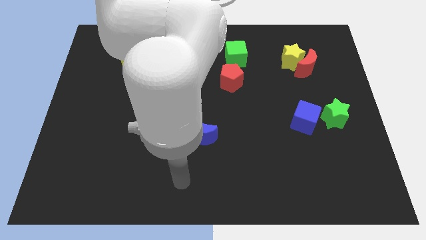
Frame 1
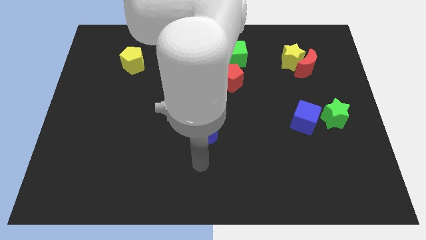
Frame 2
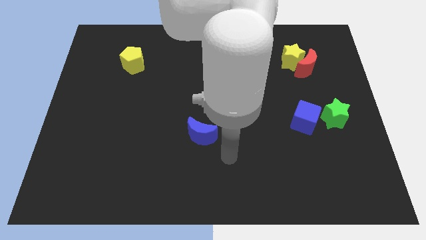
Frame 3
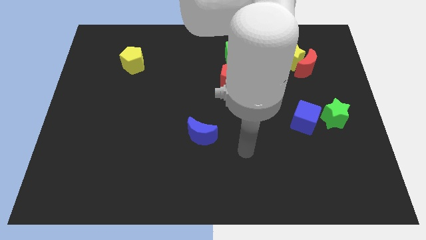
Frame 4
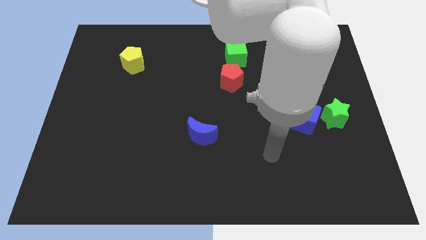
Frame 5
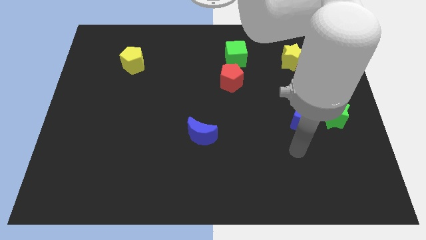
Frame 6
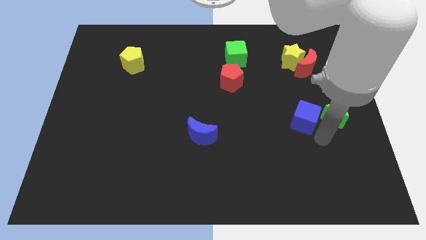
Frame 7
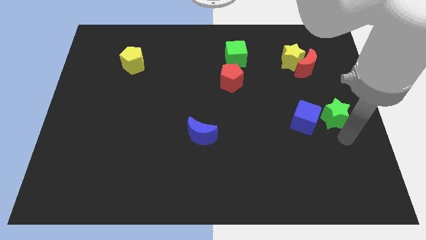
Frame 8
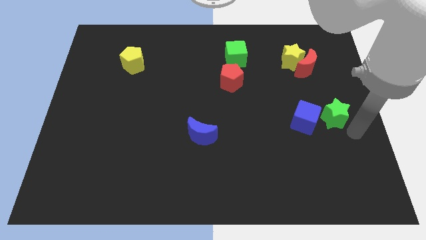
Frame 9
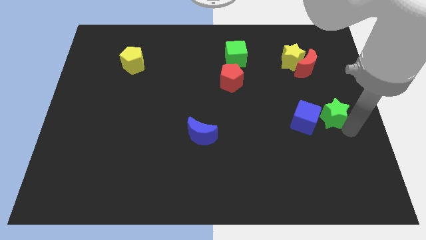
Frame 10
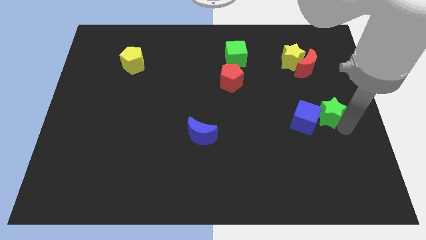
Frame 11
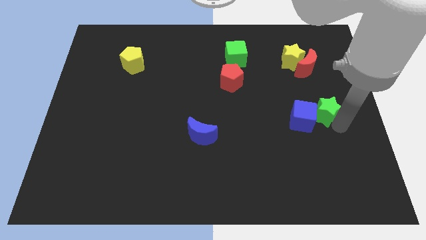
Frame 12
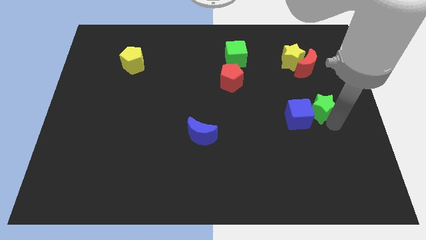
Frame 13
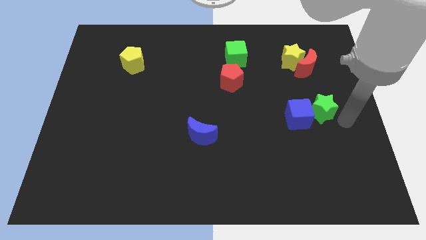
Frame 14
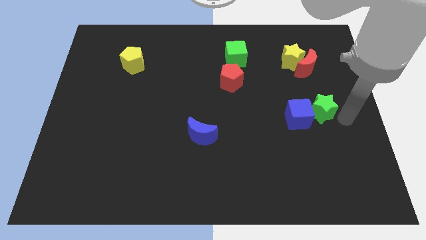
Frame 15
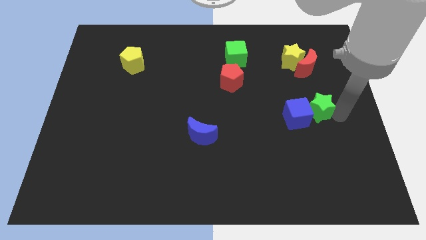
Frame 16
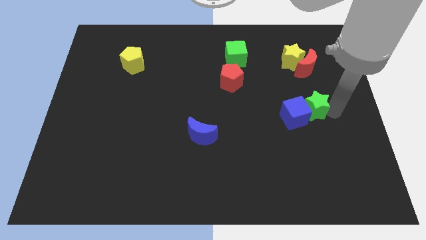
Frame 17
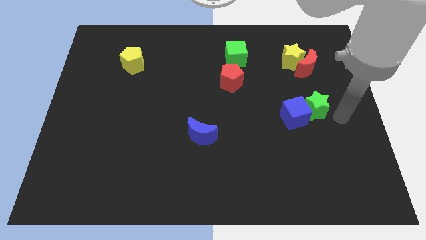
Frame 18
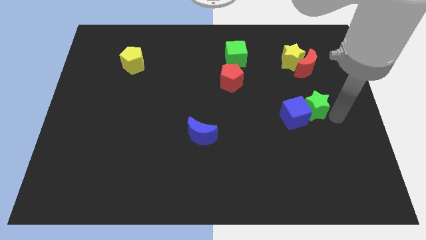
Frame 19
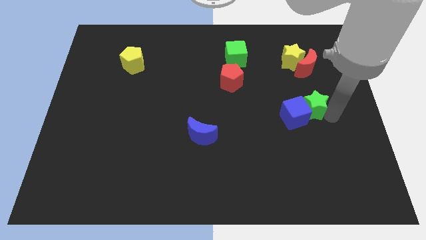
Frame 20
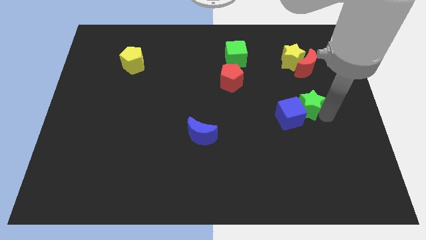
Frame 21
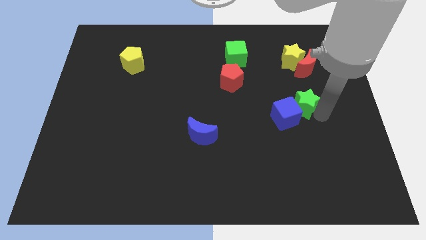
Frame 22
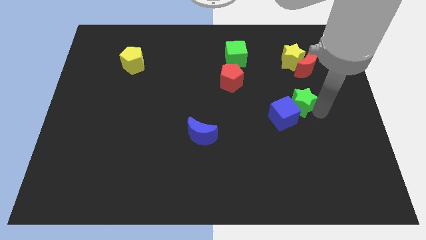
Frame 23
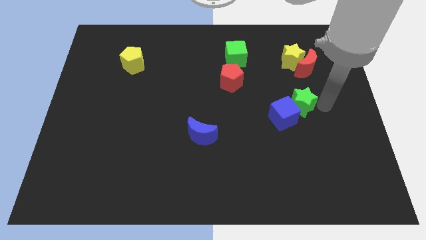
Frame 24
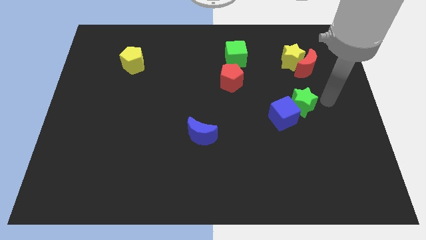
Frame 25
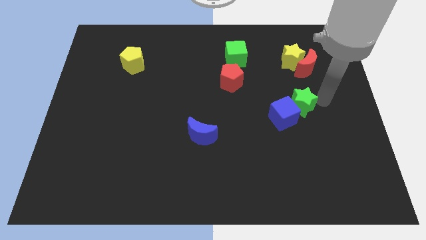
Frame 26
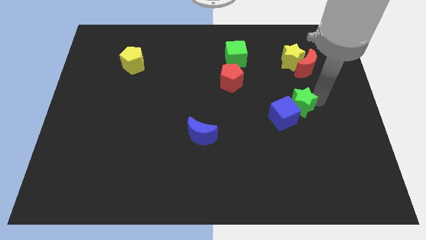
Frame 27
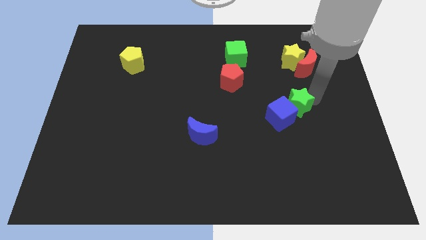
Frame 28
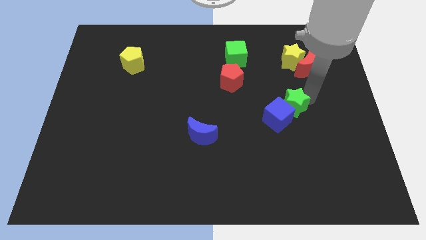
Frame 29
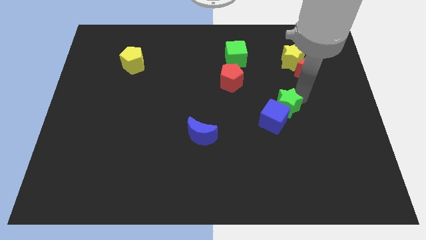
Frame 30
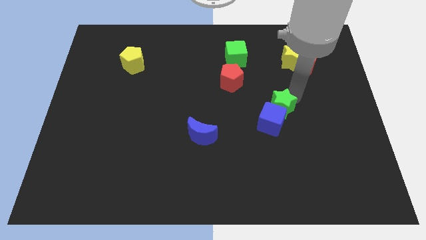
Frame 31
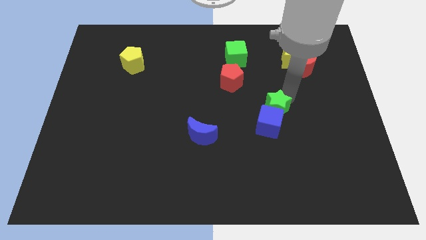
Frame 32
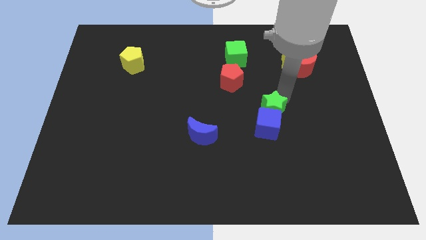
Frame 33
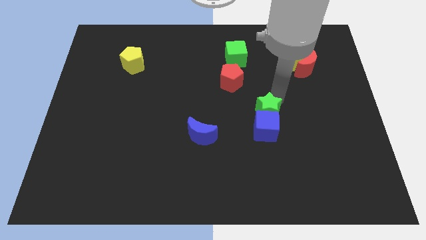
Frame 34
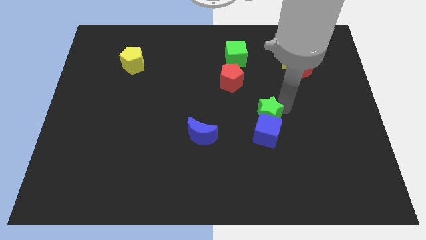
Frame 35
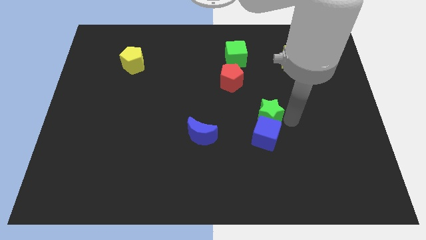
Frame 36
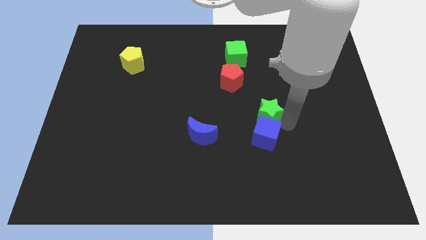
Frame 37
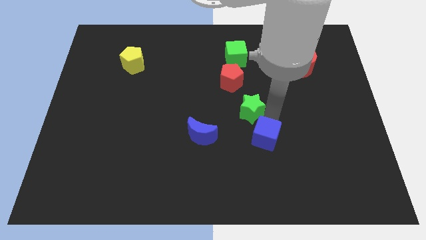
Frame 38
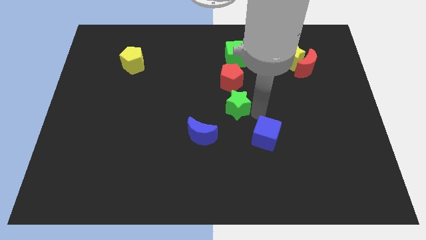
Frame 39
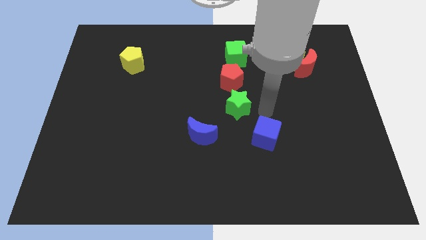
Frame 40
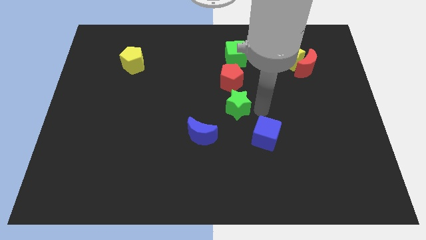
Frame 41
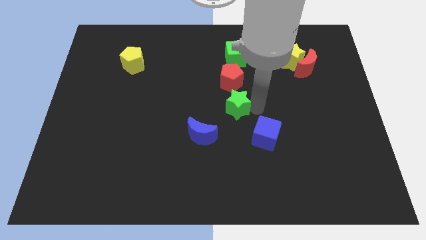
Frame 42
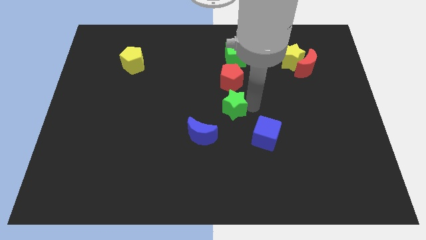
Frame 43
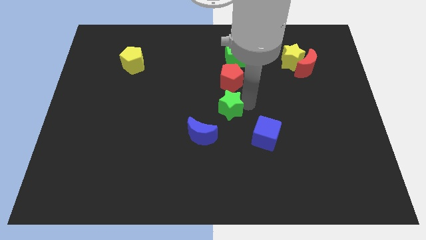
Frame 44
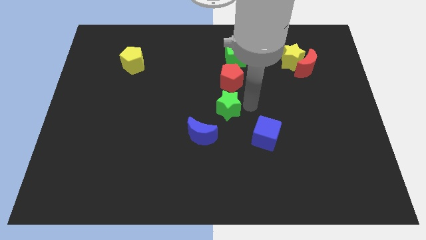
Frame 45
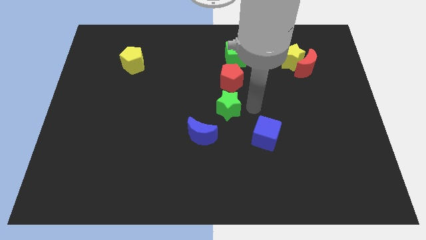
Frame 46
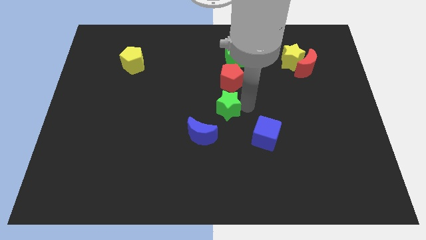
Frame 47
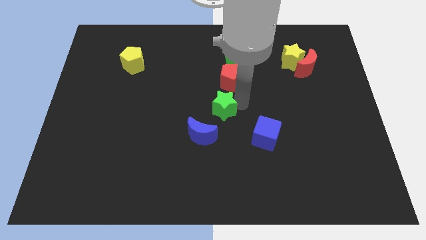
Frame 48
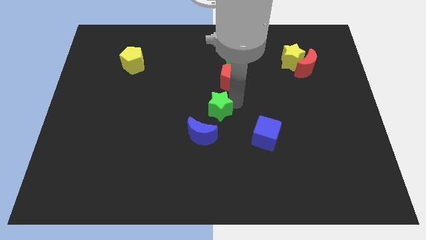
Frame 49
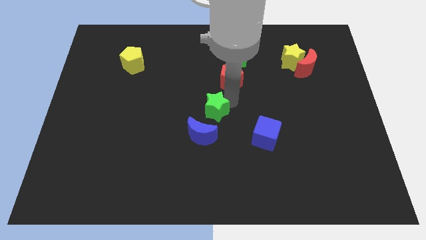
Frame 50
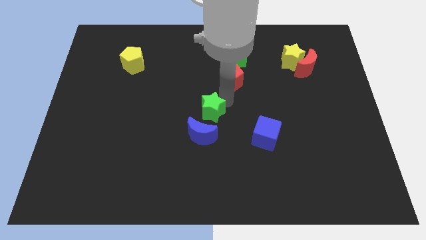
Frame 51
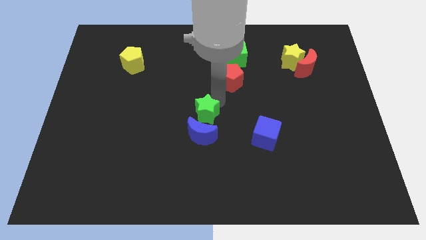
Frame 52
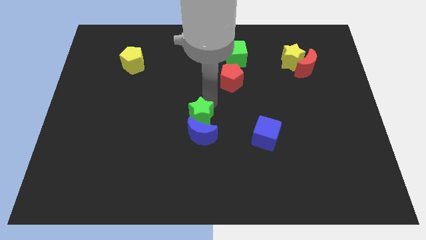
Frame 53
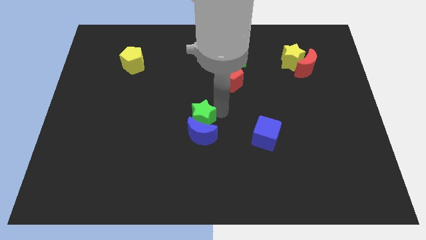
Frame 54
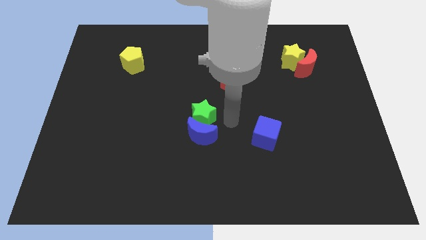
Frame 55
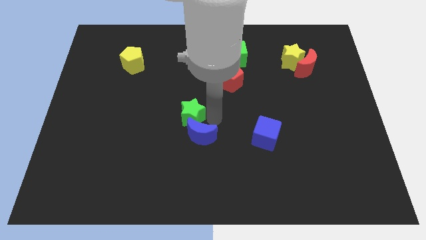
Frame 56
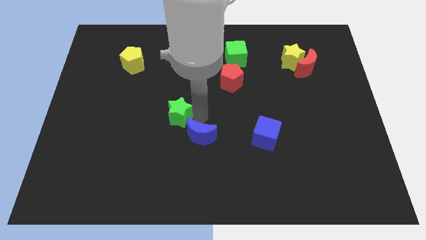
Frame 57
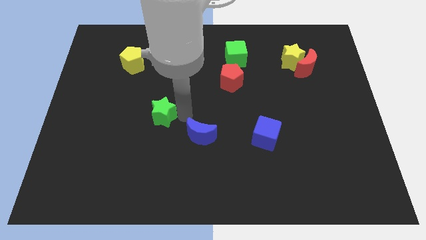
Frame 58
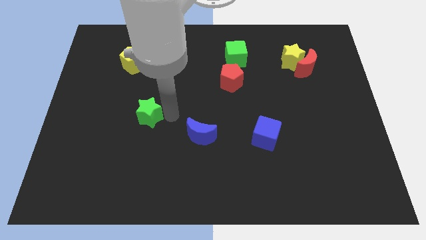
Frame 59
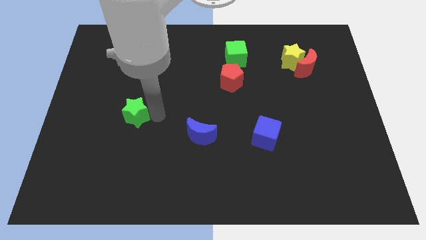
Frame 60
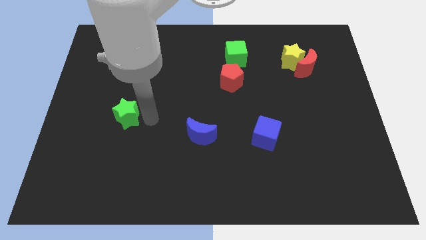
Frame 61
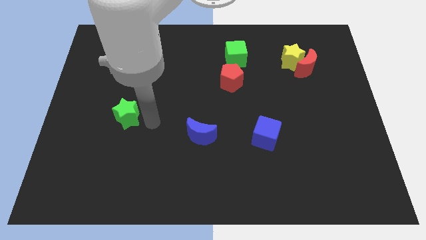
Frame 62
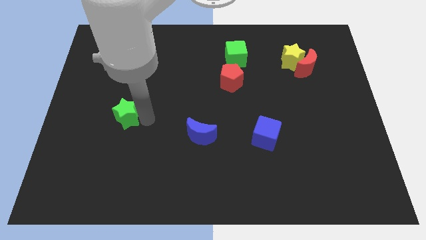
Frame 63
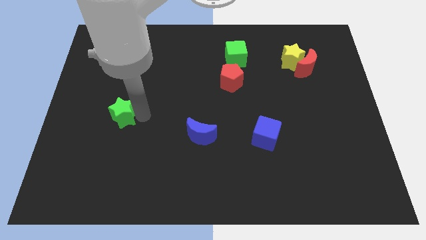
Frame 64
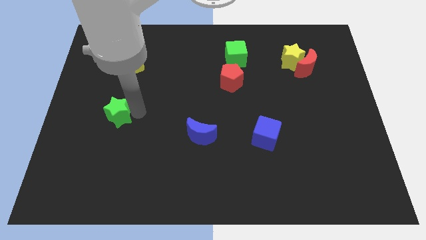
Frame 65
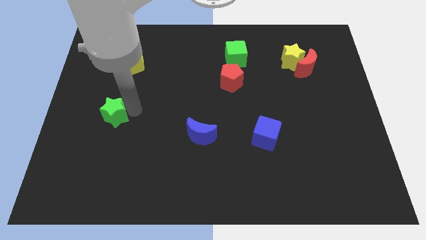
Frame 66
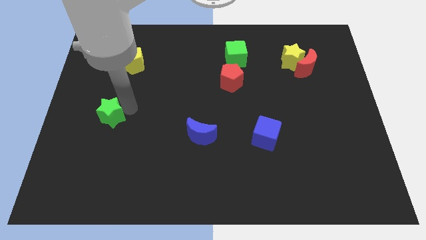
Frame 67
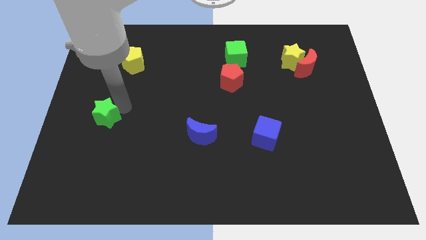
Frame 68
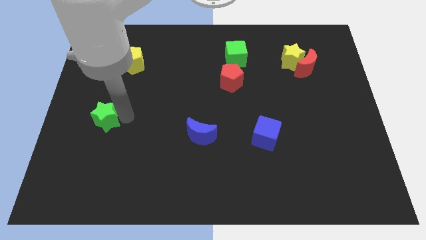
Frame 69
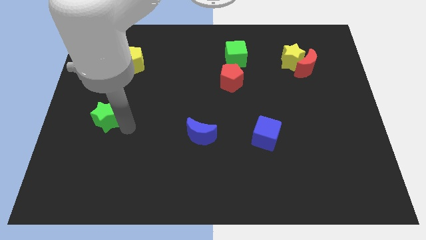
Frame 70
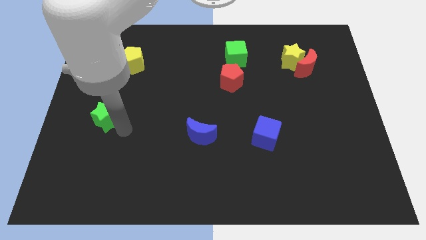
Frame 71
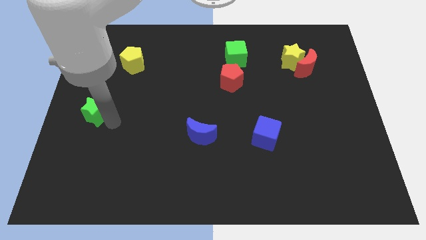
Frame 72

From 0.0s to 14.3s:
move the green star to the left side of the board
